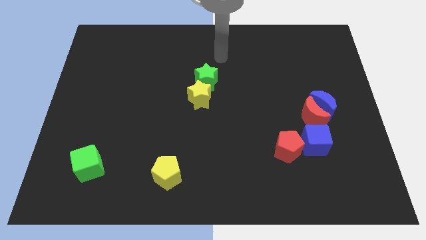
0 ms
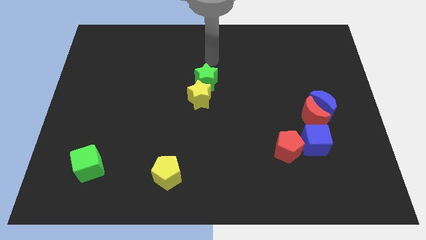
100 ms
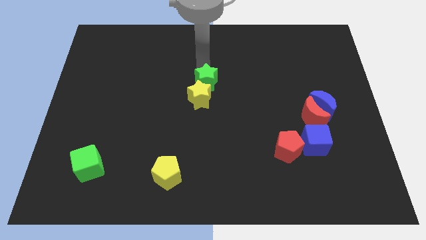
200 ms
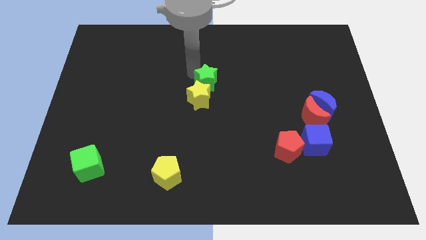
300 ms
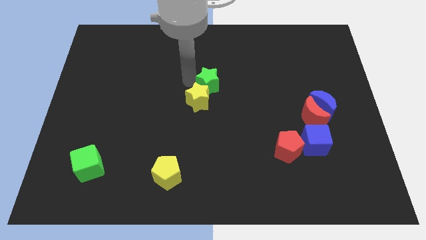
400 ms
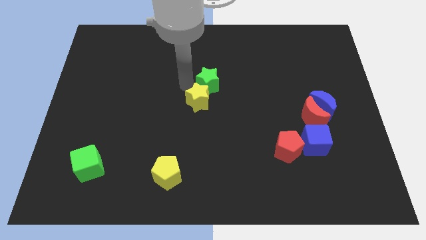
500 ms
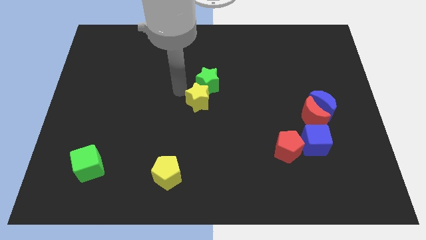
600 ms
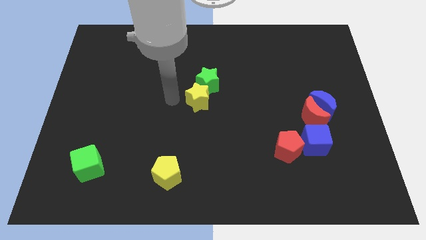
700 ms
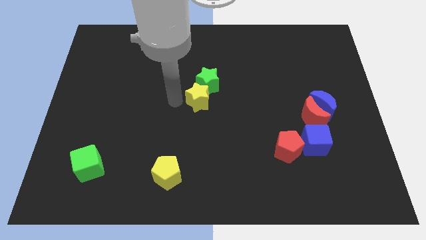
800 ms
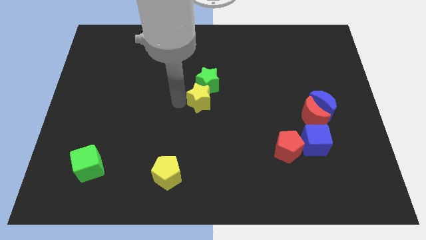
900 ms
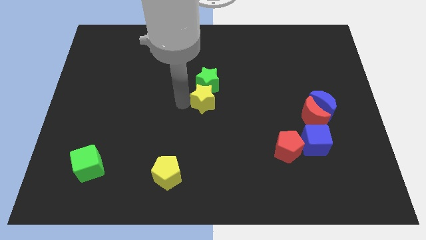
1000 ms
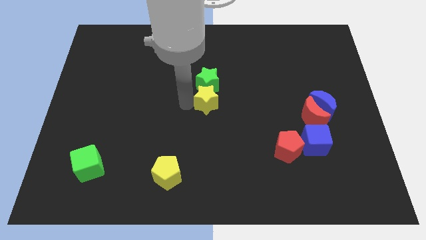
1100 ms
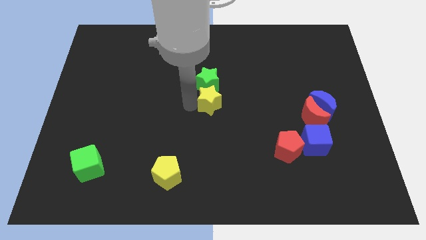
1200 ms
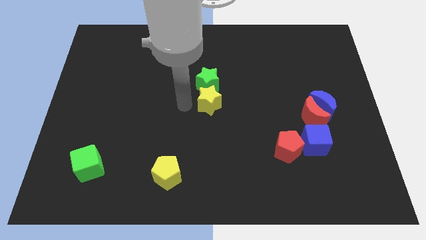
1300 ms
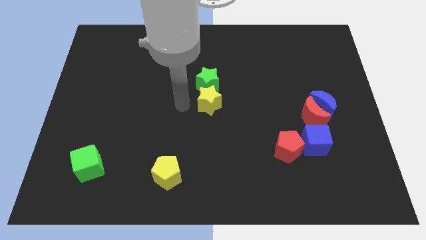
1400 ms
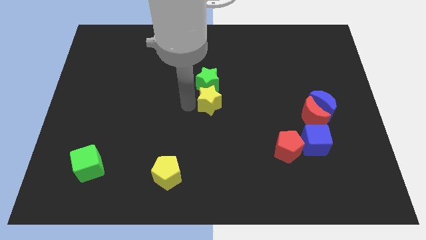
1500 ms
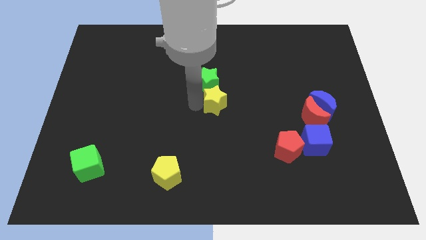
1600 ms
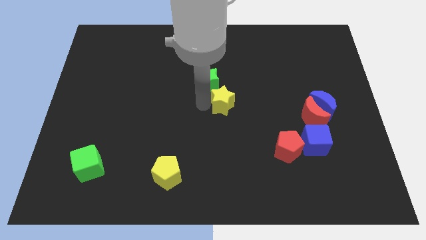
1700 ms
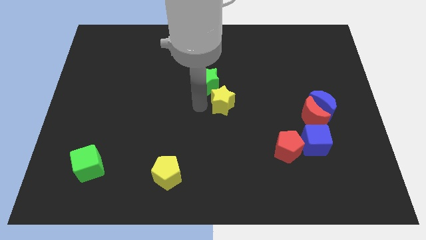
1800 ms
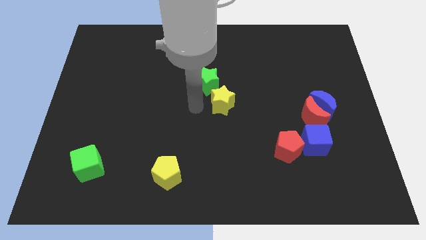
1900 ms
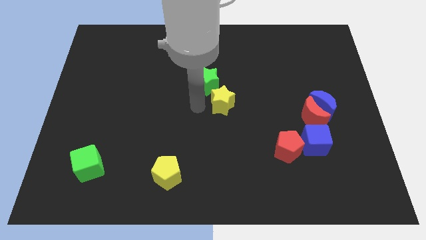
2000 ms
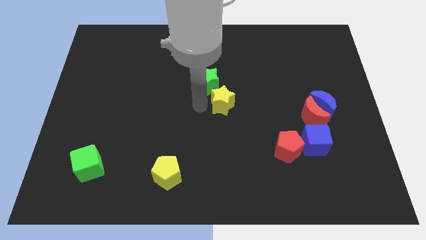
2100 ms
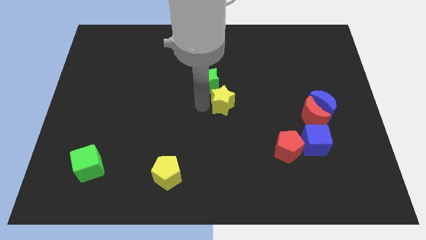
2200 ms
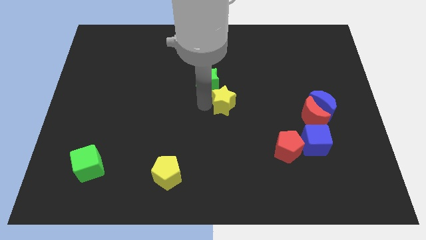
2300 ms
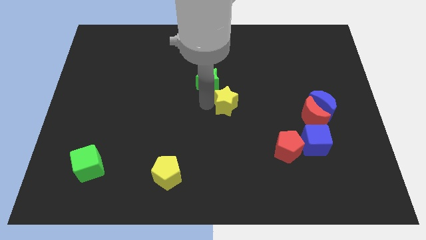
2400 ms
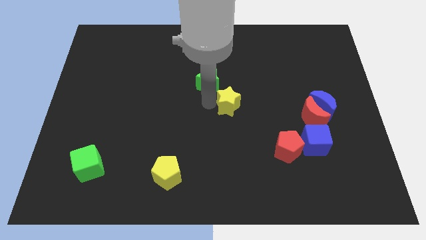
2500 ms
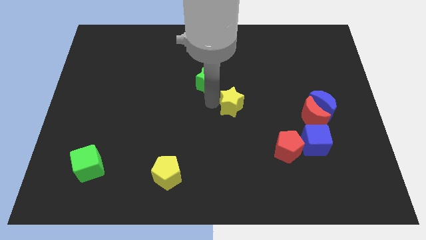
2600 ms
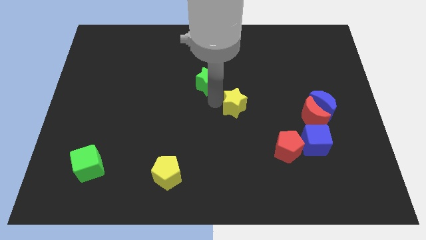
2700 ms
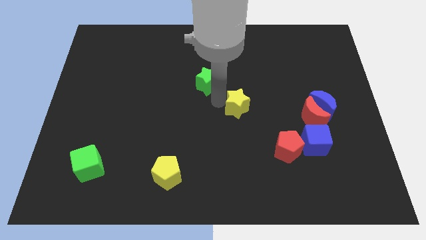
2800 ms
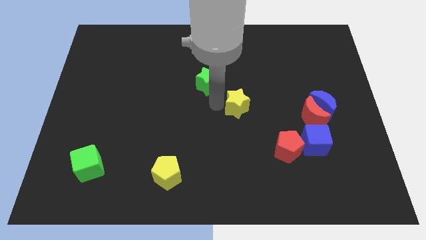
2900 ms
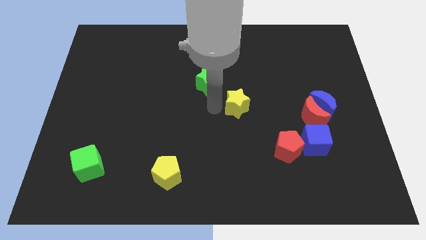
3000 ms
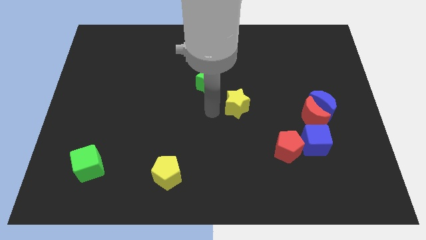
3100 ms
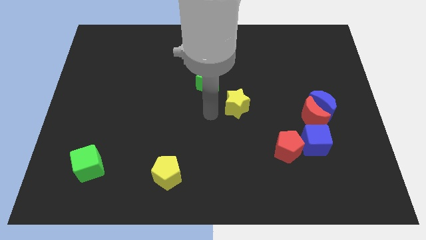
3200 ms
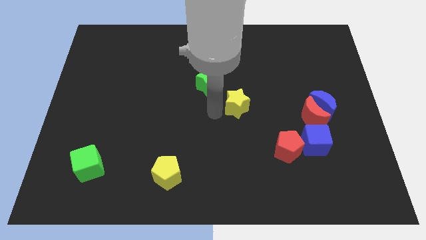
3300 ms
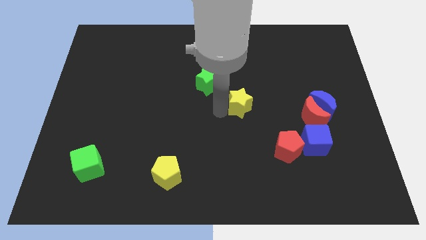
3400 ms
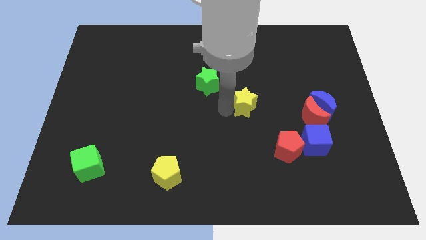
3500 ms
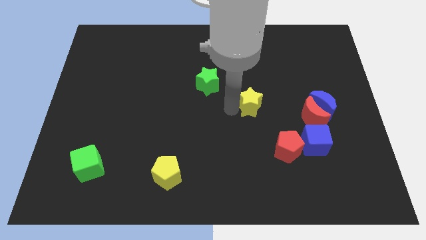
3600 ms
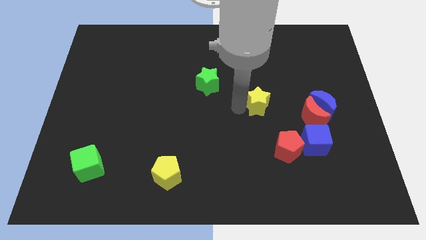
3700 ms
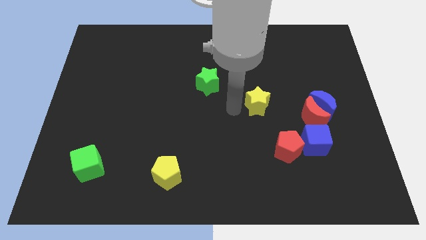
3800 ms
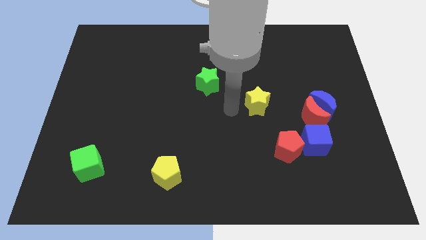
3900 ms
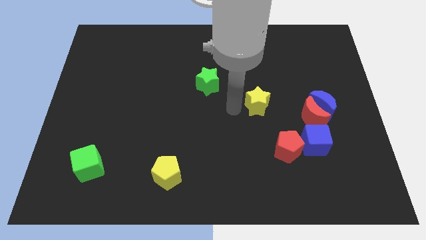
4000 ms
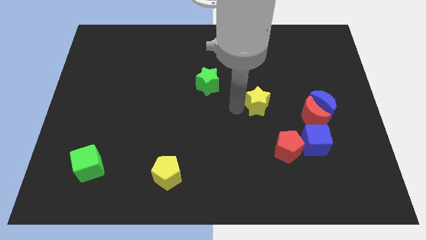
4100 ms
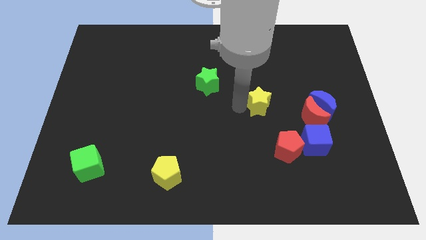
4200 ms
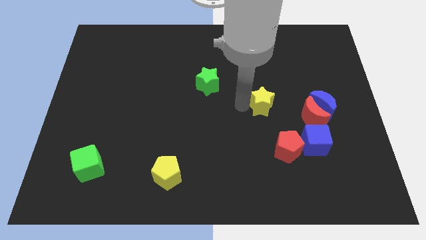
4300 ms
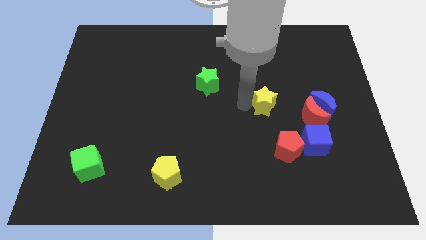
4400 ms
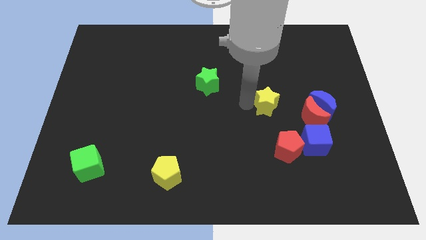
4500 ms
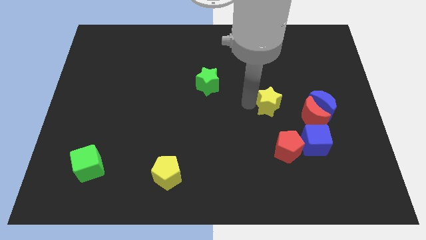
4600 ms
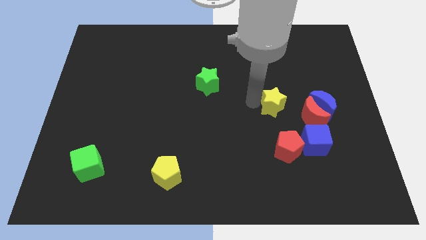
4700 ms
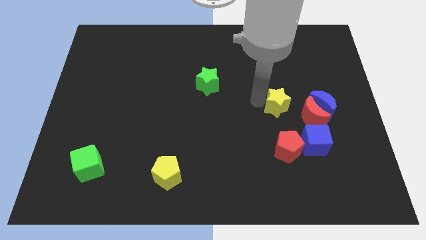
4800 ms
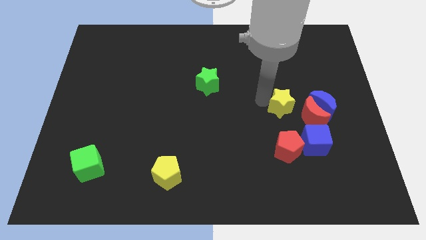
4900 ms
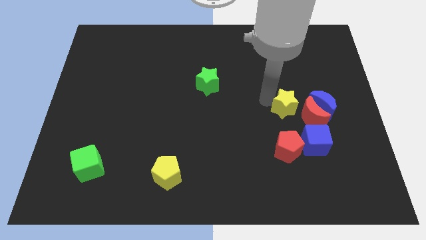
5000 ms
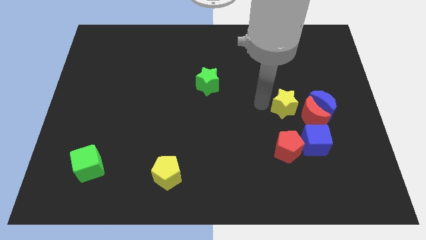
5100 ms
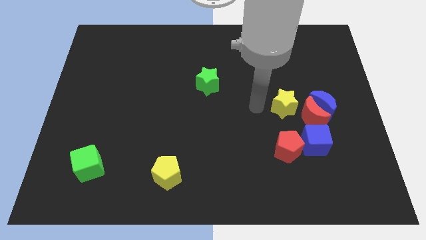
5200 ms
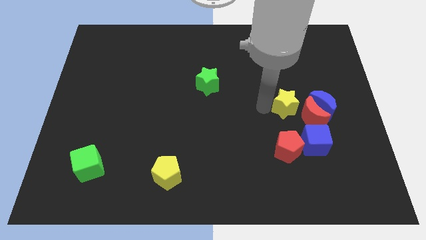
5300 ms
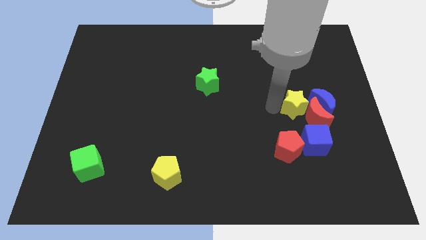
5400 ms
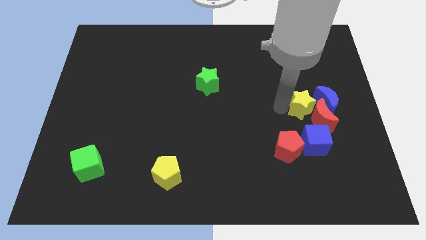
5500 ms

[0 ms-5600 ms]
push the yellow star close to the blue moon

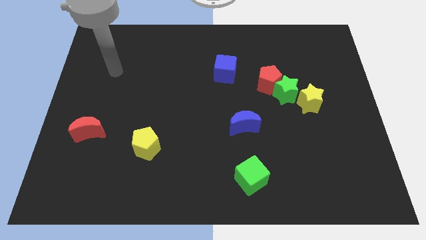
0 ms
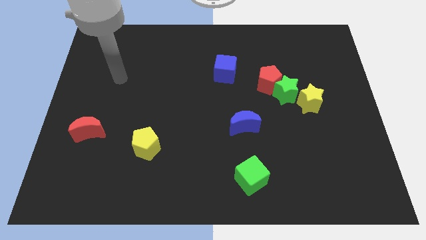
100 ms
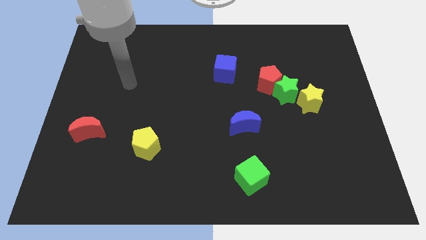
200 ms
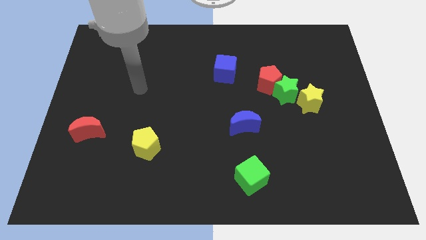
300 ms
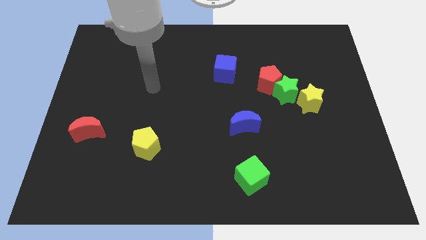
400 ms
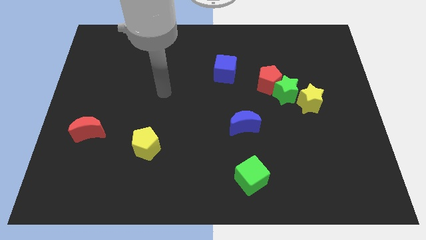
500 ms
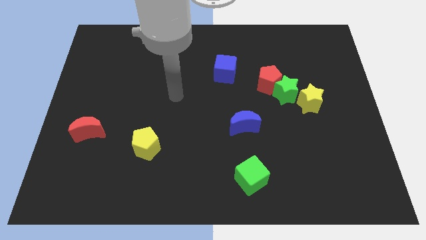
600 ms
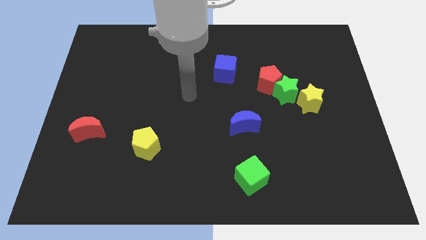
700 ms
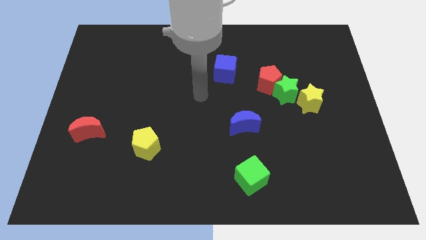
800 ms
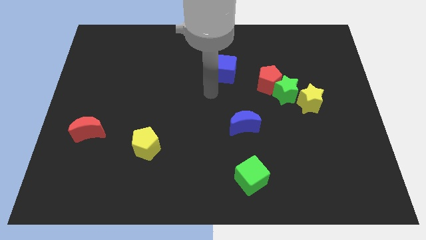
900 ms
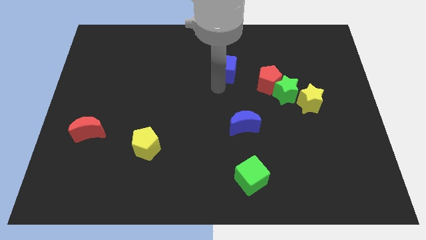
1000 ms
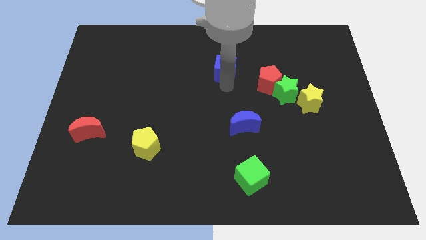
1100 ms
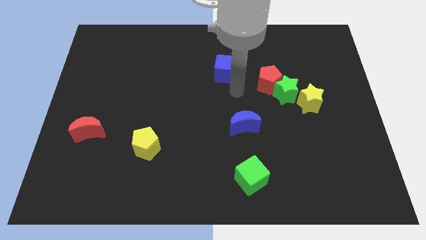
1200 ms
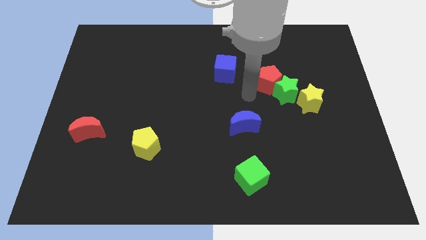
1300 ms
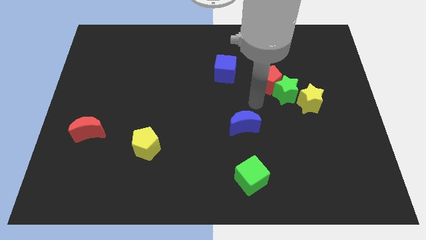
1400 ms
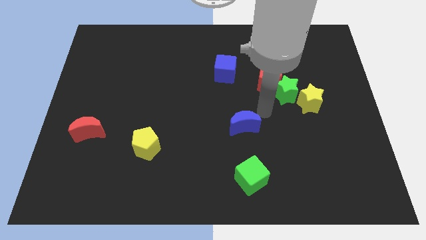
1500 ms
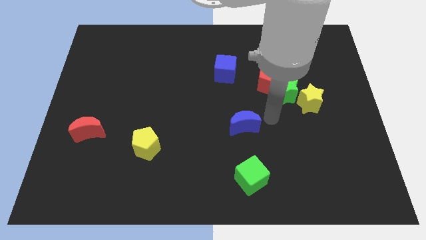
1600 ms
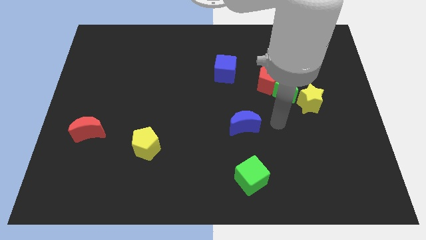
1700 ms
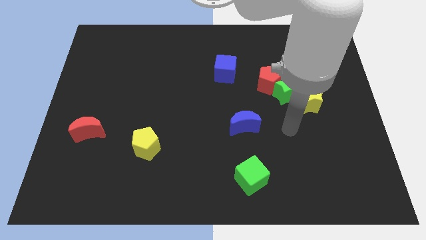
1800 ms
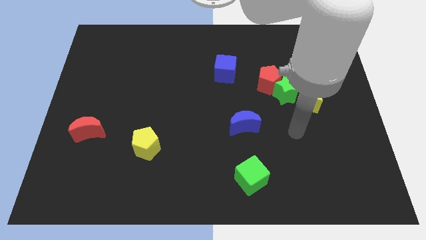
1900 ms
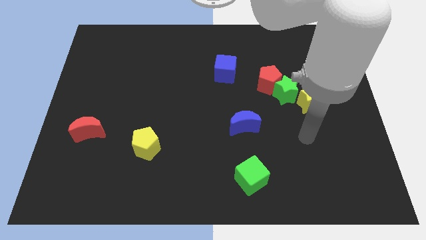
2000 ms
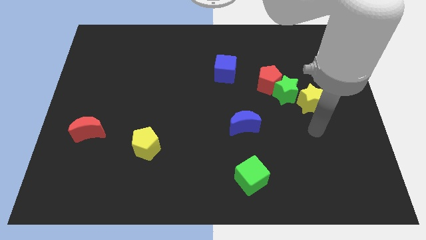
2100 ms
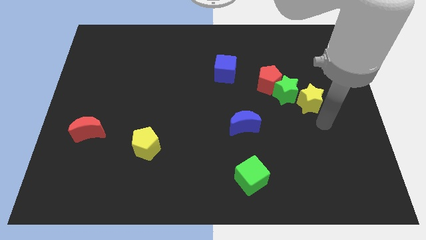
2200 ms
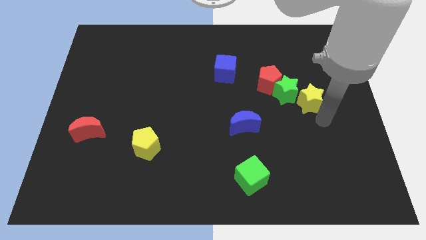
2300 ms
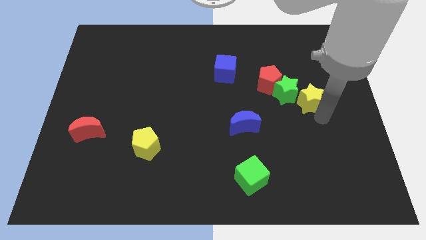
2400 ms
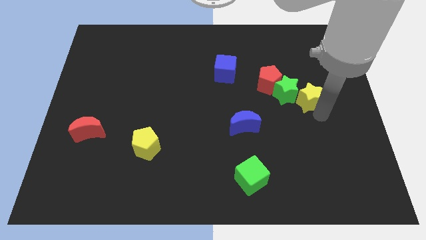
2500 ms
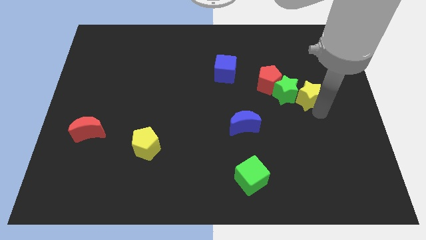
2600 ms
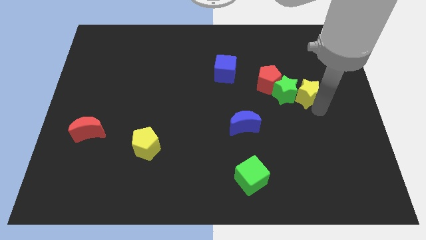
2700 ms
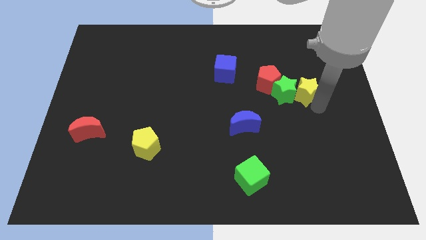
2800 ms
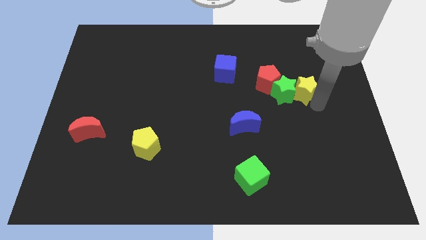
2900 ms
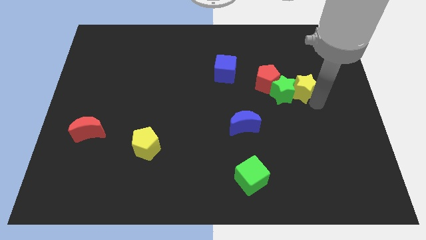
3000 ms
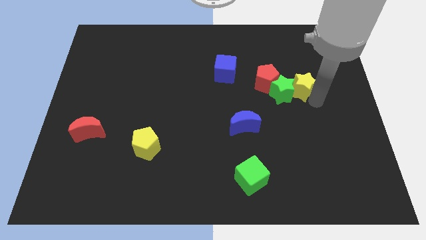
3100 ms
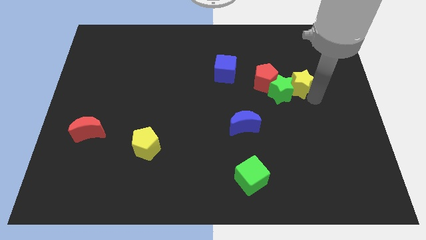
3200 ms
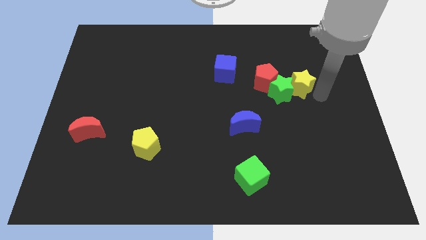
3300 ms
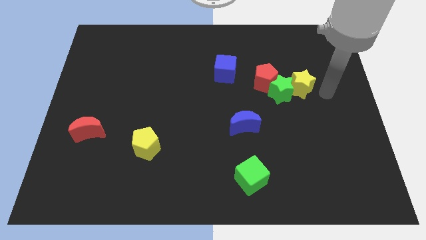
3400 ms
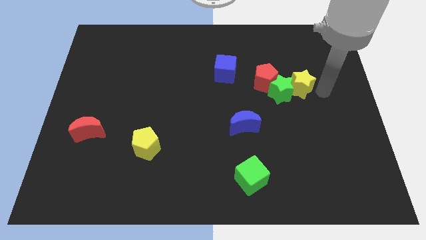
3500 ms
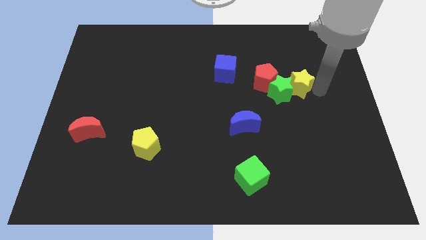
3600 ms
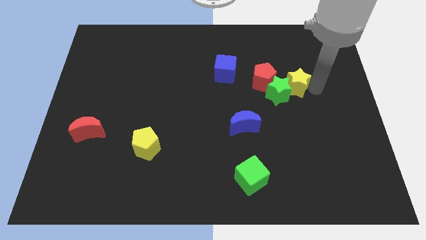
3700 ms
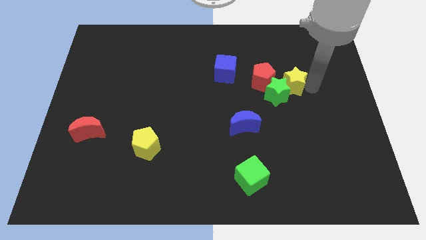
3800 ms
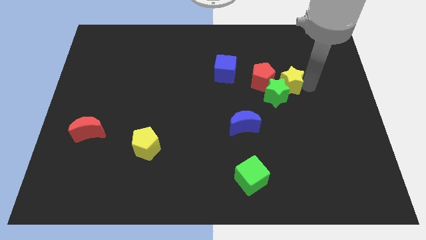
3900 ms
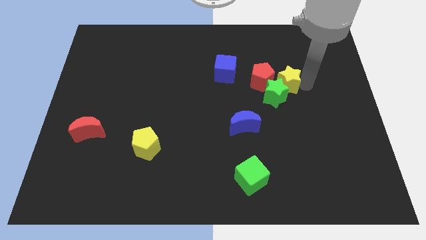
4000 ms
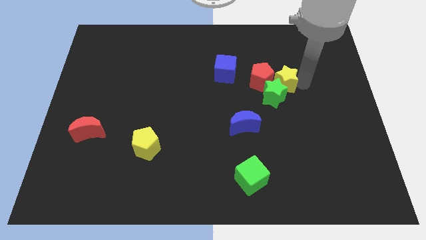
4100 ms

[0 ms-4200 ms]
slide the yellow star close to the red pentagon
